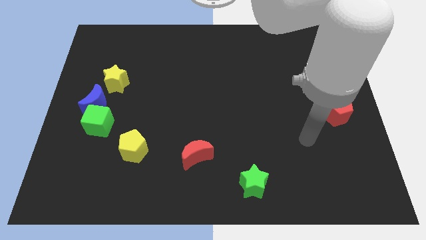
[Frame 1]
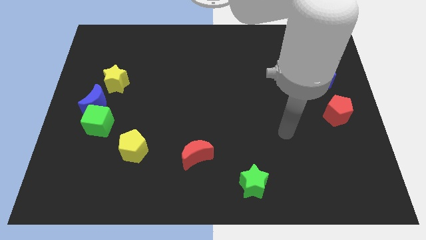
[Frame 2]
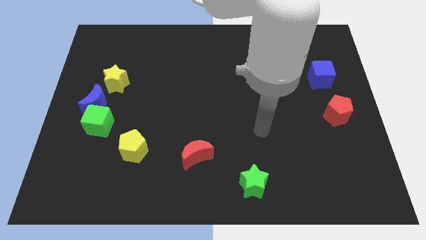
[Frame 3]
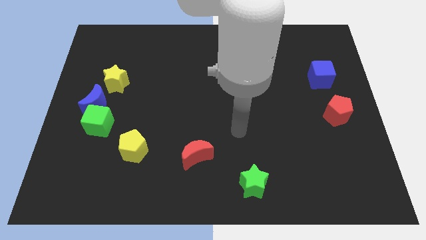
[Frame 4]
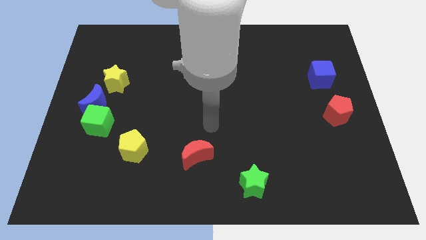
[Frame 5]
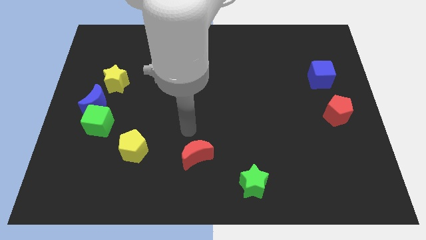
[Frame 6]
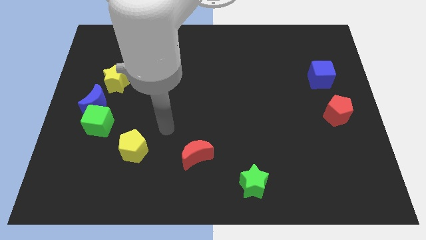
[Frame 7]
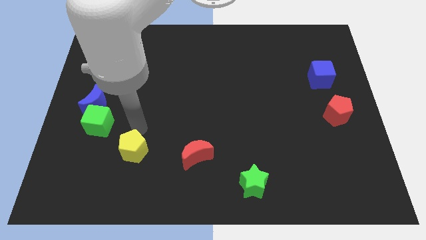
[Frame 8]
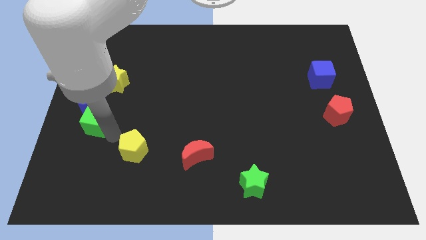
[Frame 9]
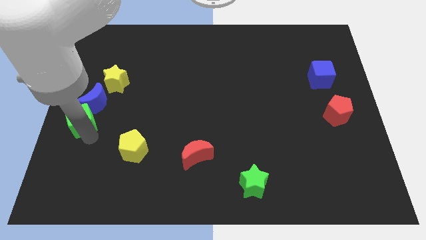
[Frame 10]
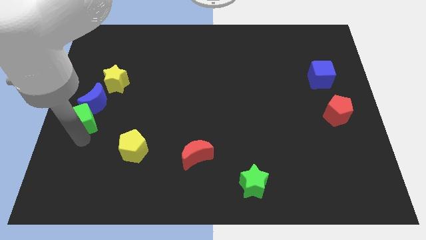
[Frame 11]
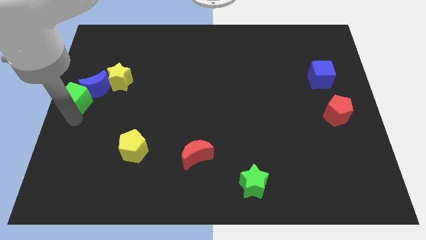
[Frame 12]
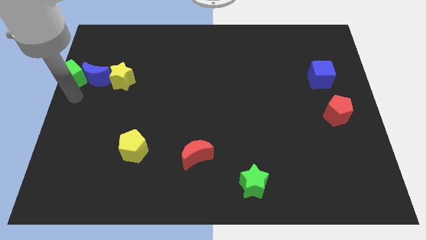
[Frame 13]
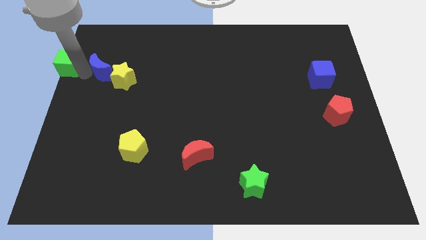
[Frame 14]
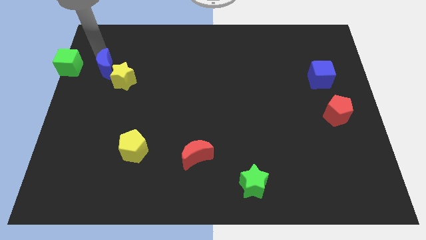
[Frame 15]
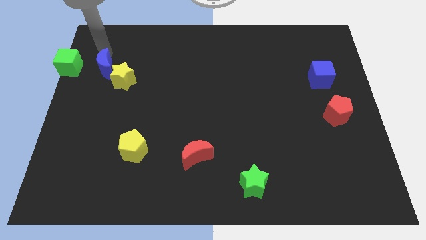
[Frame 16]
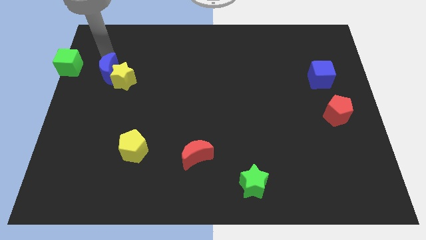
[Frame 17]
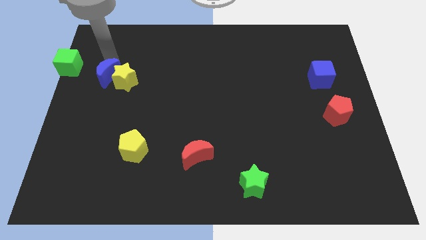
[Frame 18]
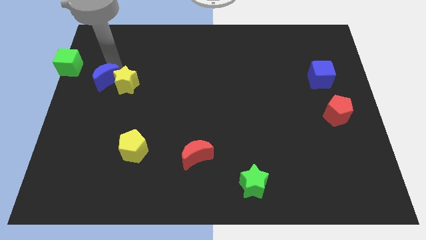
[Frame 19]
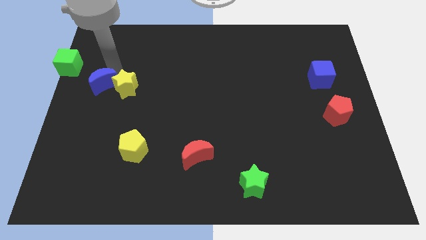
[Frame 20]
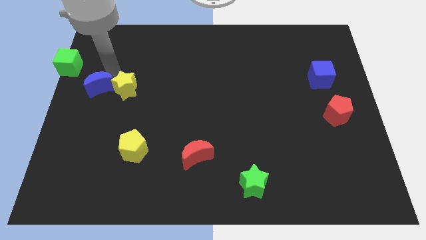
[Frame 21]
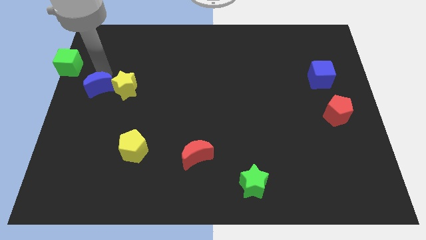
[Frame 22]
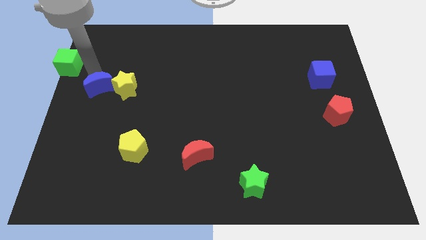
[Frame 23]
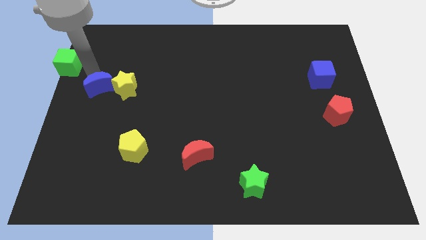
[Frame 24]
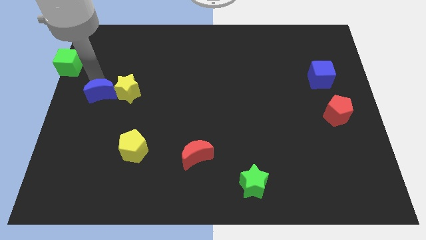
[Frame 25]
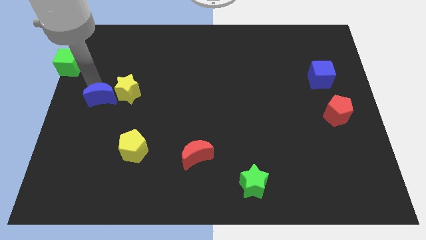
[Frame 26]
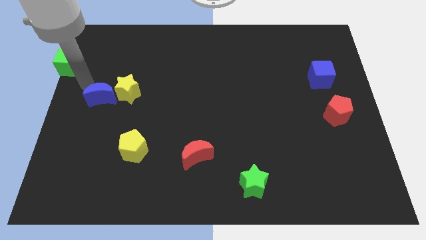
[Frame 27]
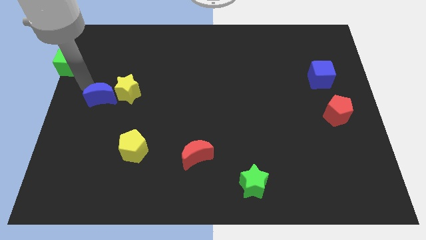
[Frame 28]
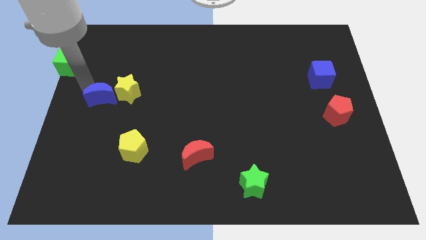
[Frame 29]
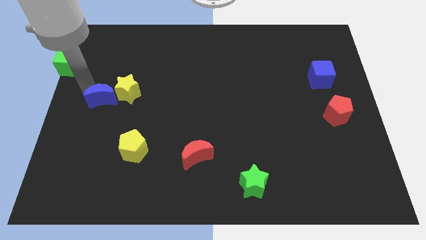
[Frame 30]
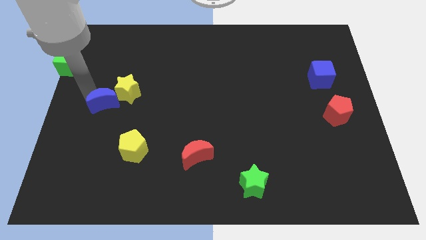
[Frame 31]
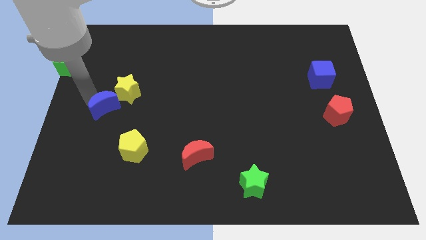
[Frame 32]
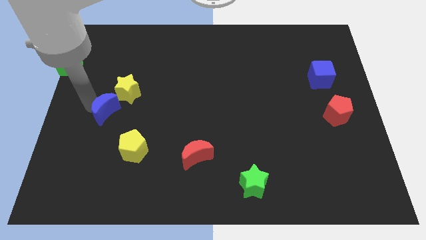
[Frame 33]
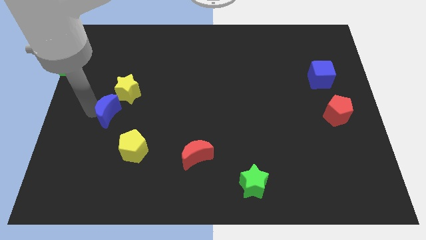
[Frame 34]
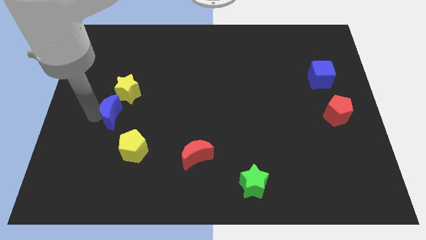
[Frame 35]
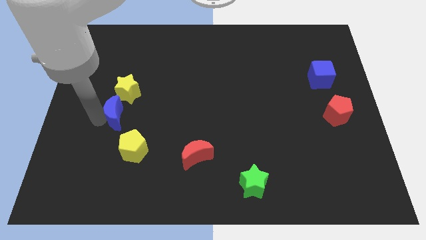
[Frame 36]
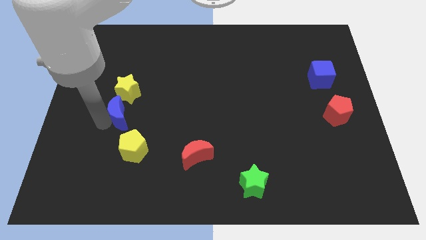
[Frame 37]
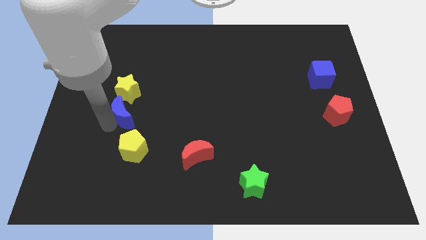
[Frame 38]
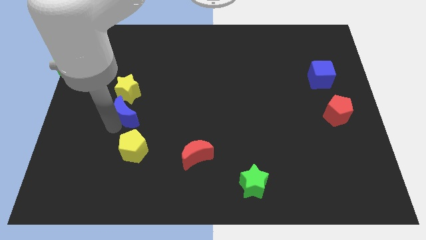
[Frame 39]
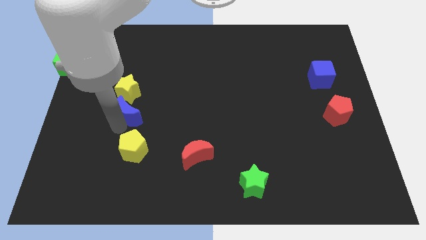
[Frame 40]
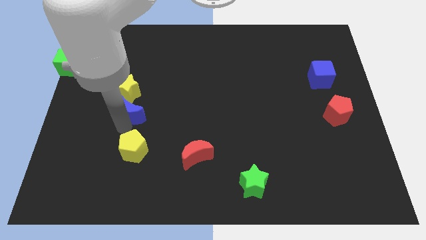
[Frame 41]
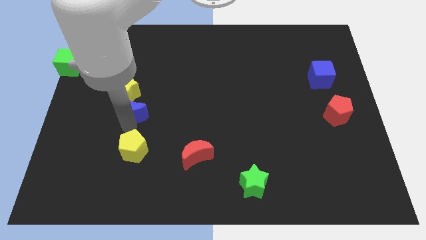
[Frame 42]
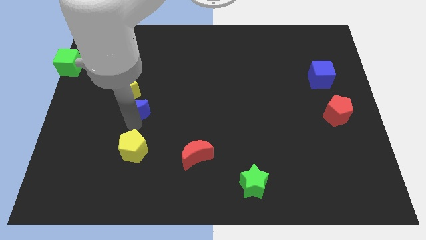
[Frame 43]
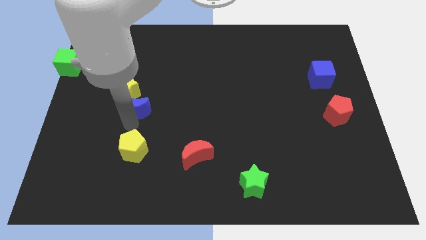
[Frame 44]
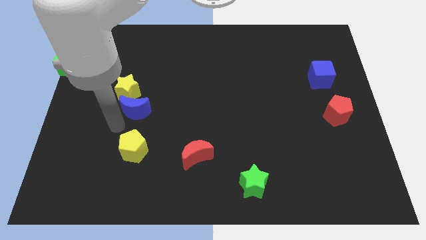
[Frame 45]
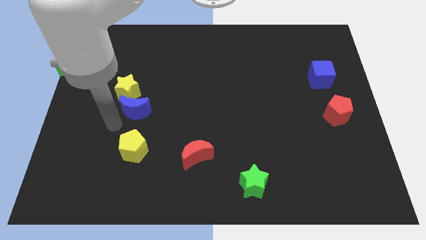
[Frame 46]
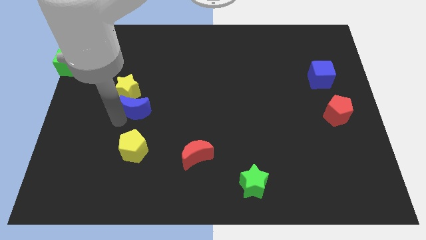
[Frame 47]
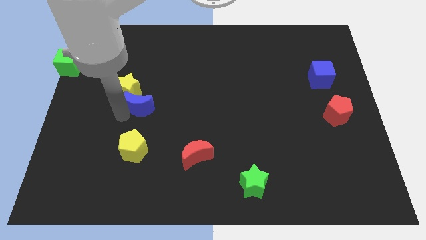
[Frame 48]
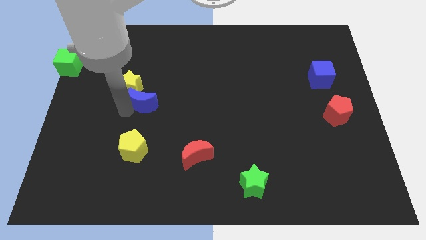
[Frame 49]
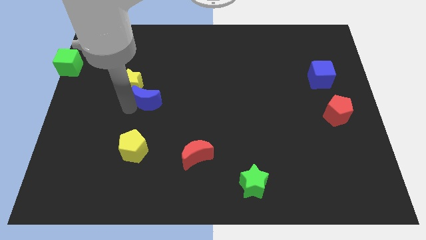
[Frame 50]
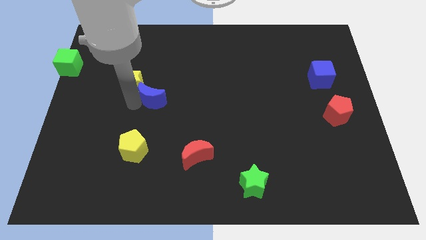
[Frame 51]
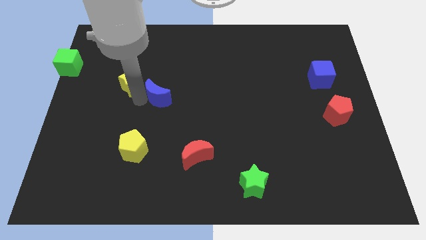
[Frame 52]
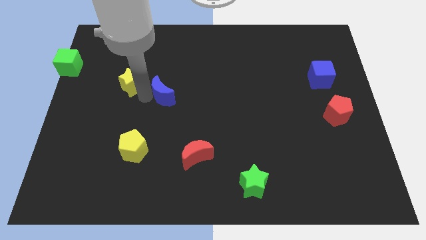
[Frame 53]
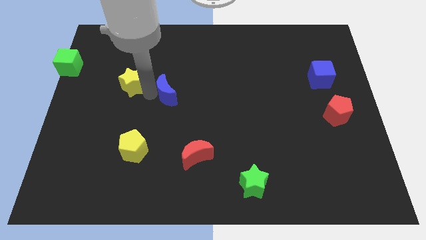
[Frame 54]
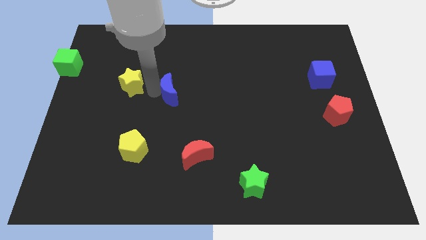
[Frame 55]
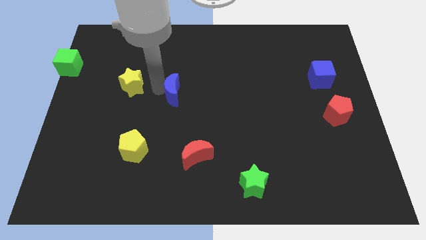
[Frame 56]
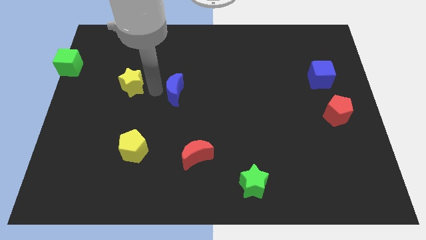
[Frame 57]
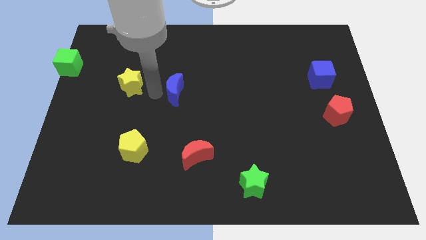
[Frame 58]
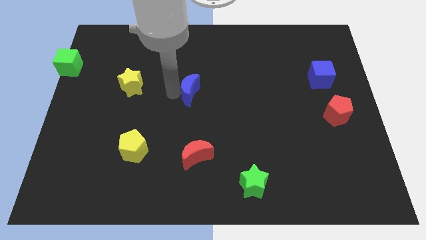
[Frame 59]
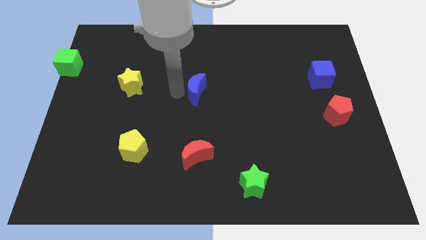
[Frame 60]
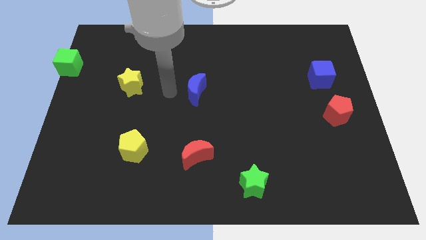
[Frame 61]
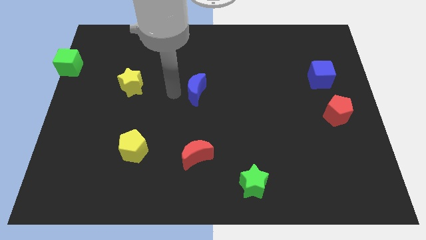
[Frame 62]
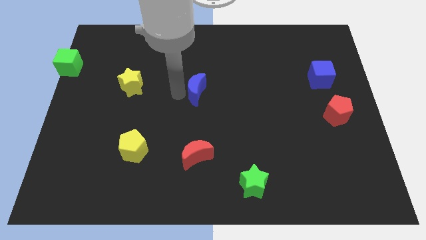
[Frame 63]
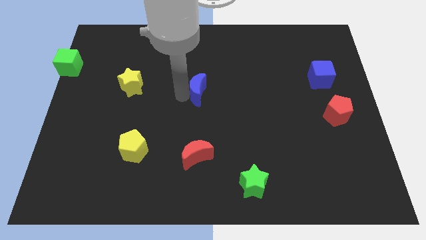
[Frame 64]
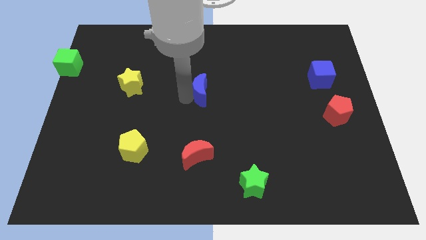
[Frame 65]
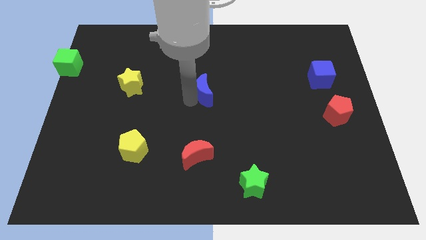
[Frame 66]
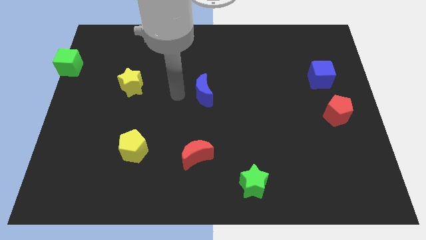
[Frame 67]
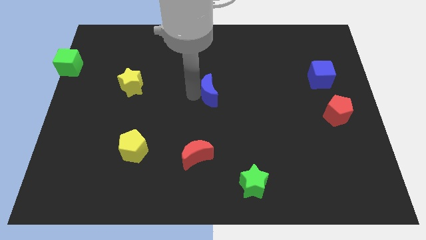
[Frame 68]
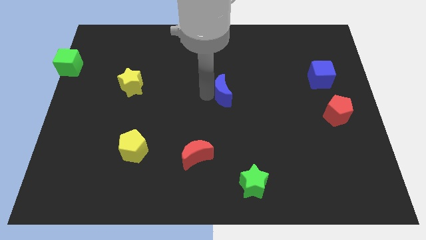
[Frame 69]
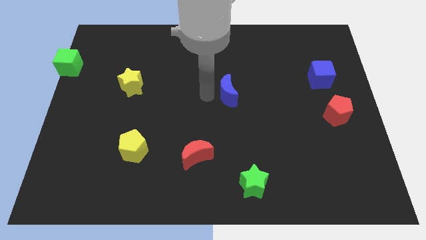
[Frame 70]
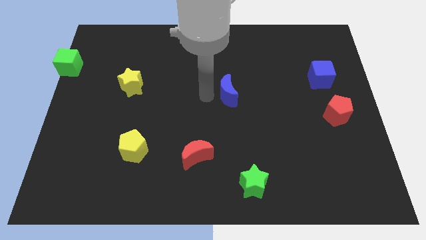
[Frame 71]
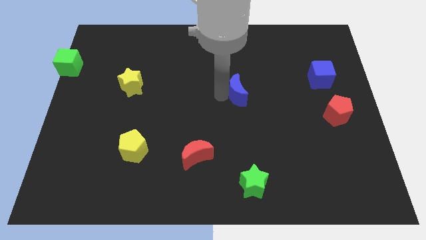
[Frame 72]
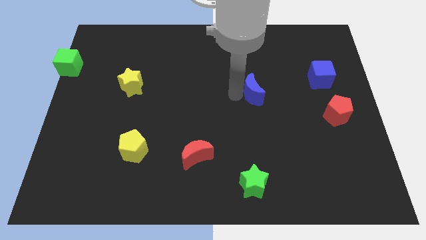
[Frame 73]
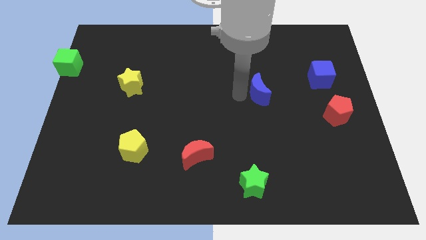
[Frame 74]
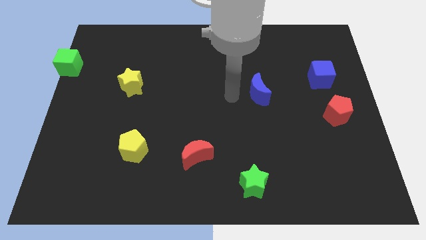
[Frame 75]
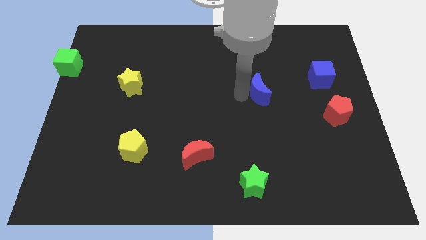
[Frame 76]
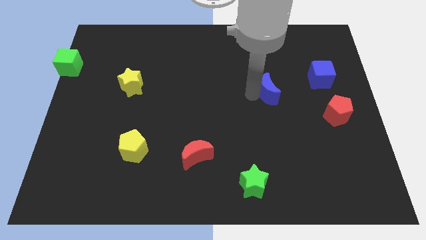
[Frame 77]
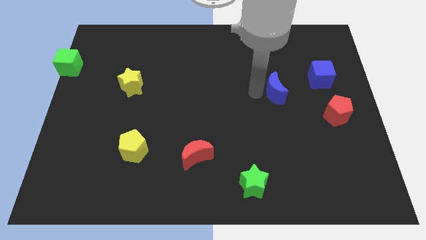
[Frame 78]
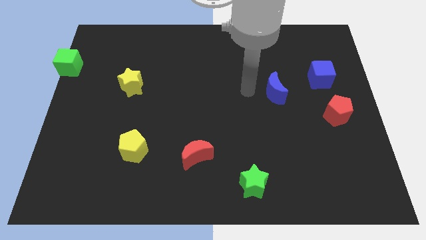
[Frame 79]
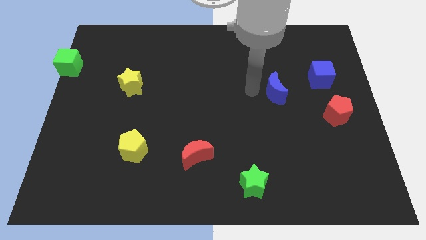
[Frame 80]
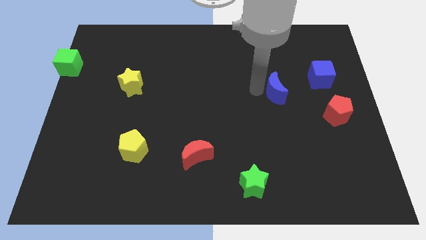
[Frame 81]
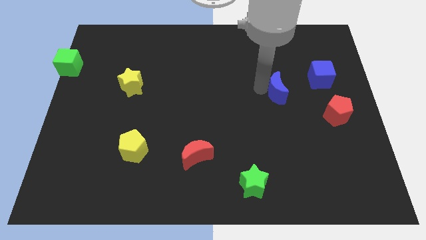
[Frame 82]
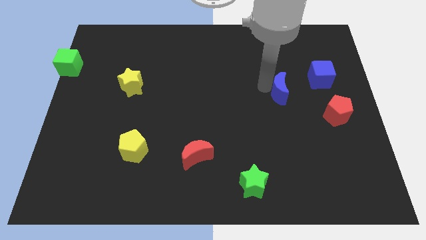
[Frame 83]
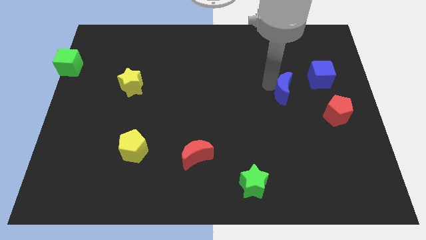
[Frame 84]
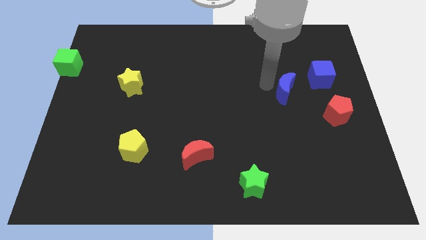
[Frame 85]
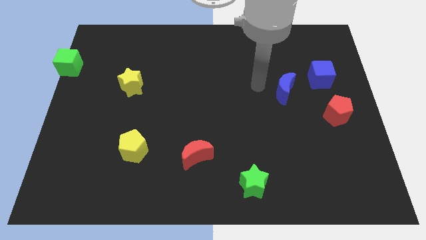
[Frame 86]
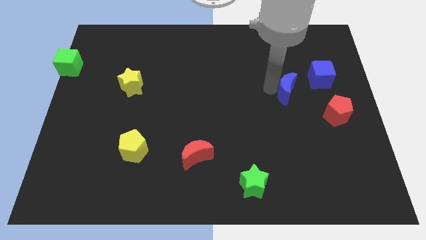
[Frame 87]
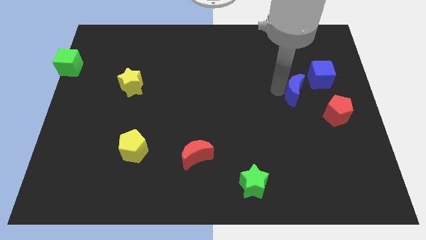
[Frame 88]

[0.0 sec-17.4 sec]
slide the blue moon diagonally up and to the left of the red pentagon
